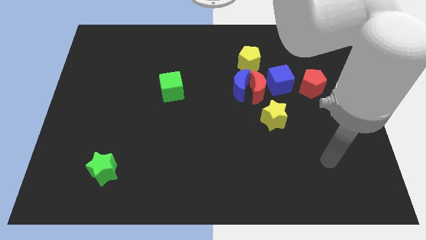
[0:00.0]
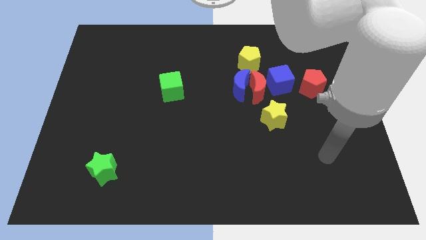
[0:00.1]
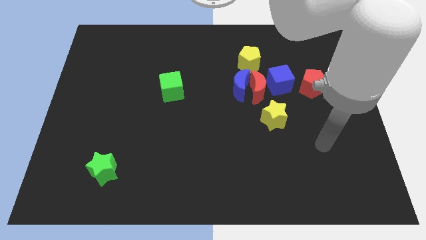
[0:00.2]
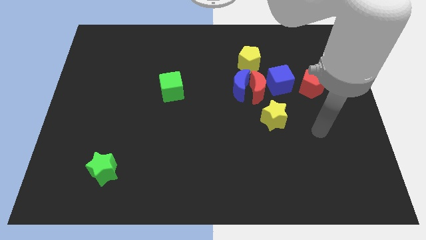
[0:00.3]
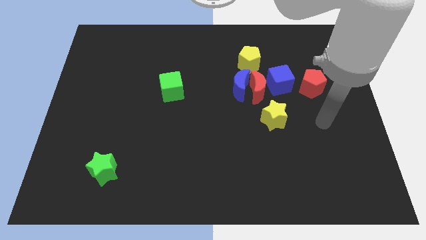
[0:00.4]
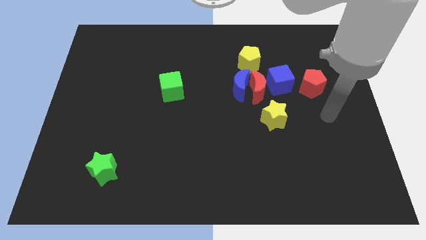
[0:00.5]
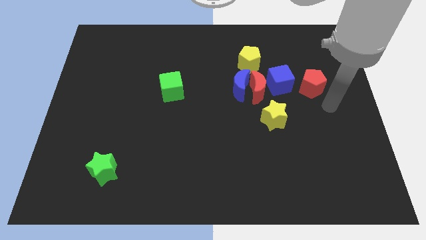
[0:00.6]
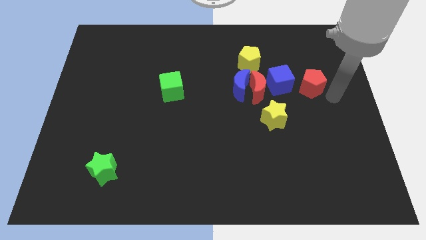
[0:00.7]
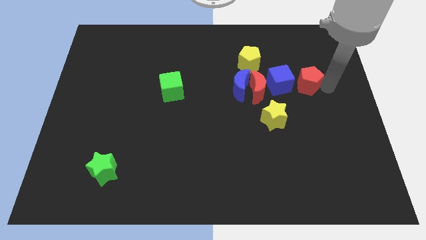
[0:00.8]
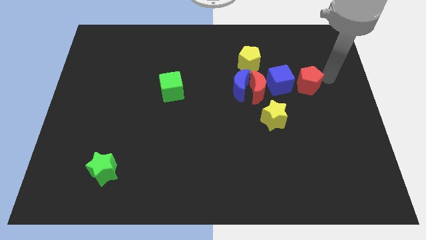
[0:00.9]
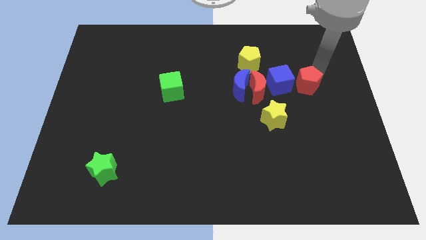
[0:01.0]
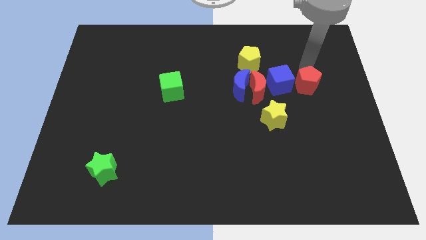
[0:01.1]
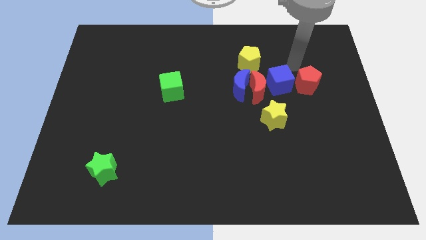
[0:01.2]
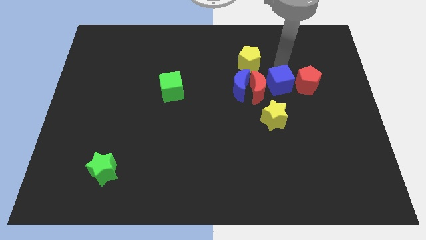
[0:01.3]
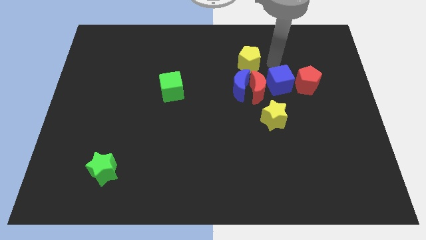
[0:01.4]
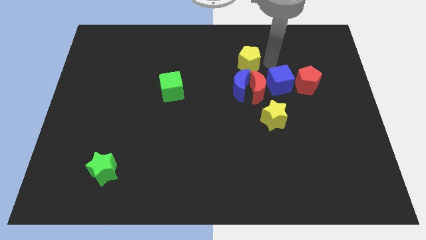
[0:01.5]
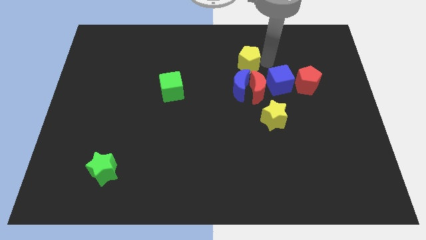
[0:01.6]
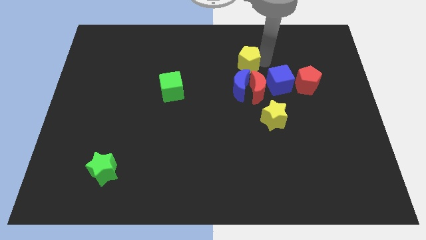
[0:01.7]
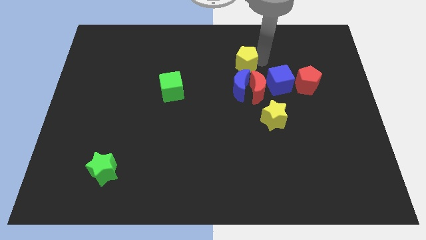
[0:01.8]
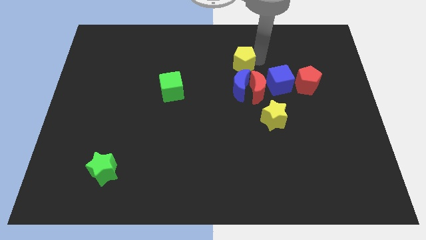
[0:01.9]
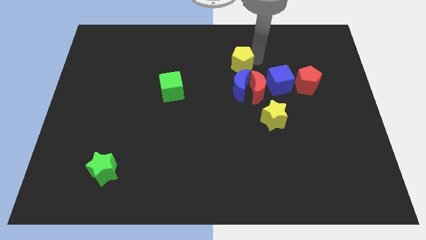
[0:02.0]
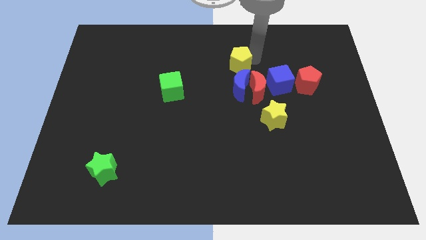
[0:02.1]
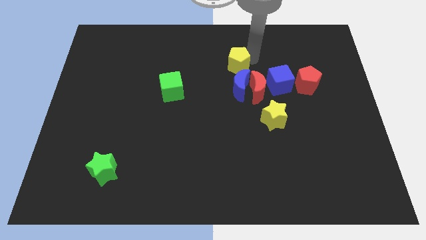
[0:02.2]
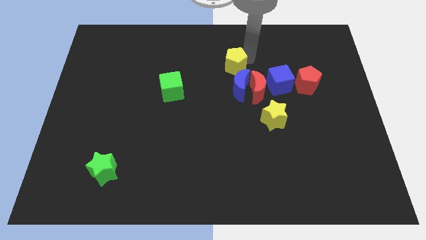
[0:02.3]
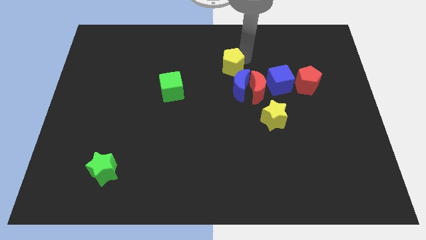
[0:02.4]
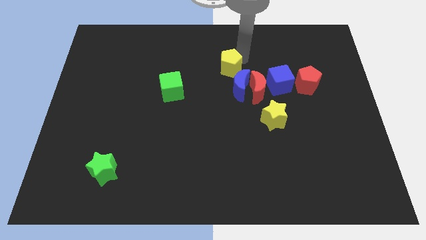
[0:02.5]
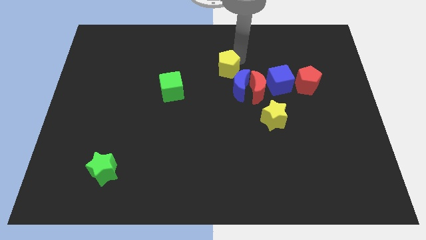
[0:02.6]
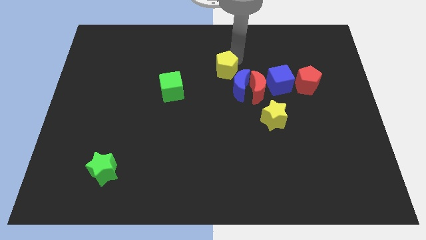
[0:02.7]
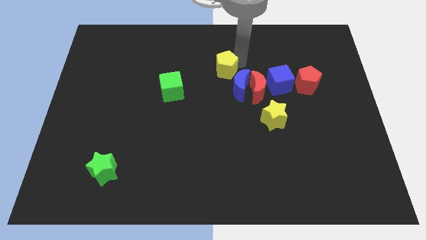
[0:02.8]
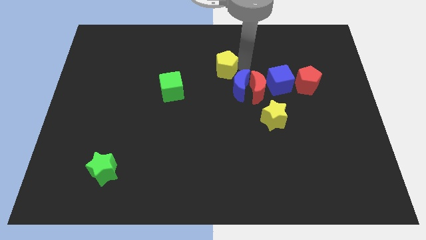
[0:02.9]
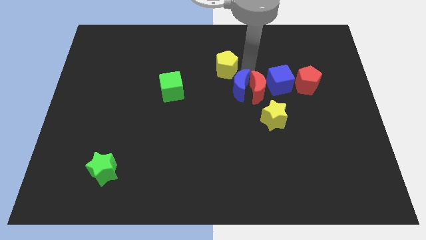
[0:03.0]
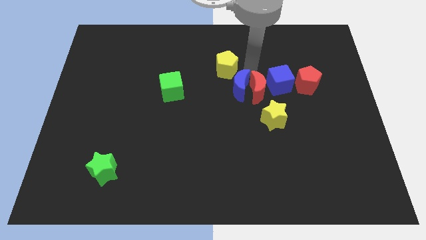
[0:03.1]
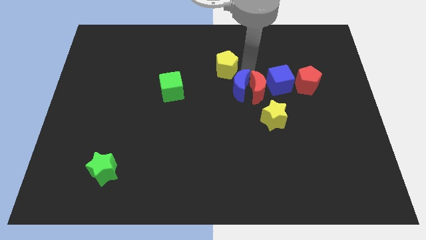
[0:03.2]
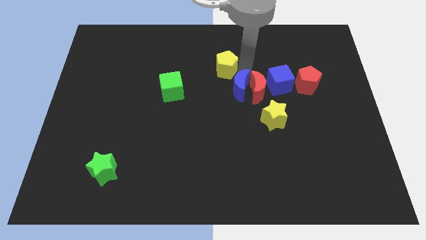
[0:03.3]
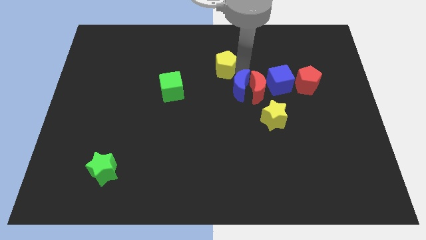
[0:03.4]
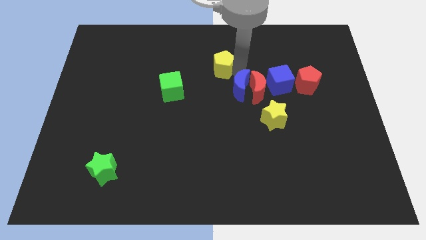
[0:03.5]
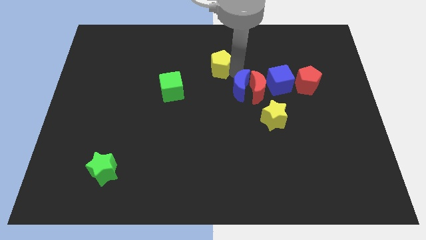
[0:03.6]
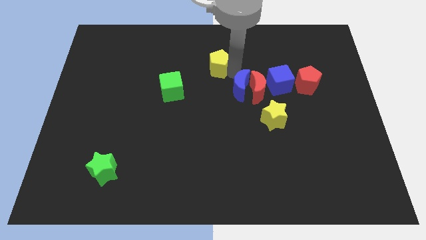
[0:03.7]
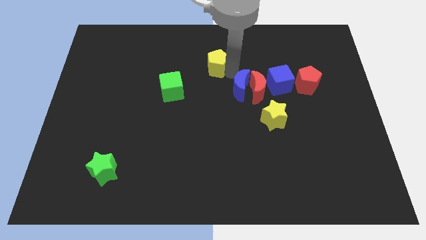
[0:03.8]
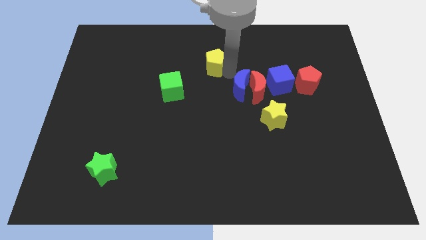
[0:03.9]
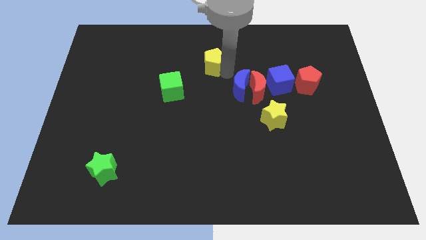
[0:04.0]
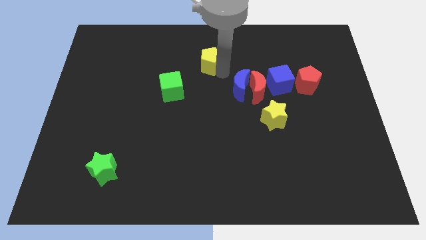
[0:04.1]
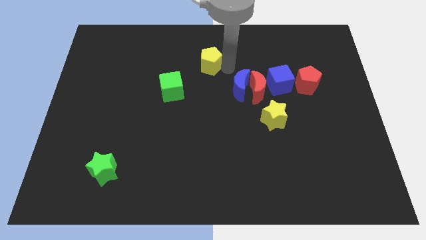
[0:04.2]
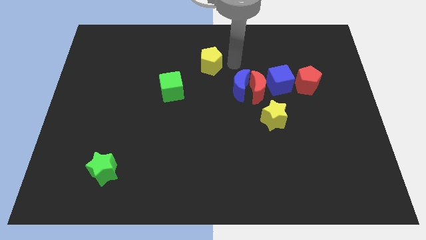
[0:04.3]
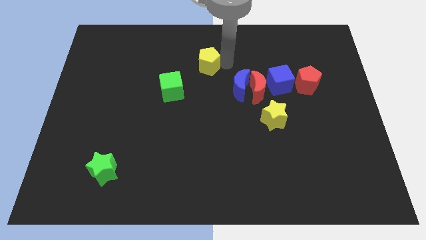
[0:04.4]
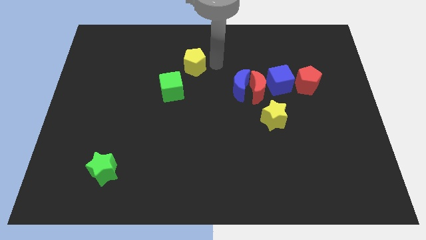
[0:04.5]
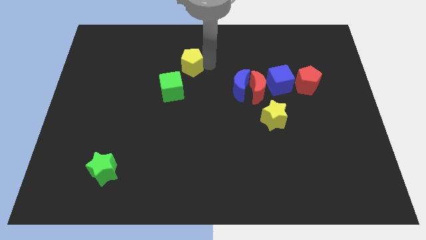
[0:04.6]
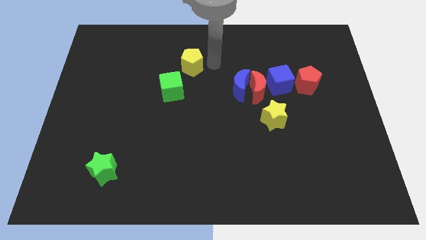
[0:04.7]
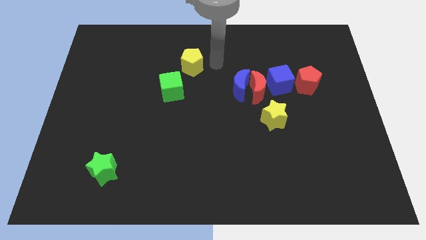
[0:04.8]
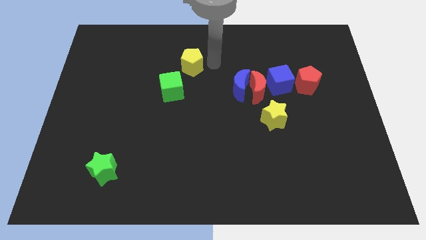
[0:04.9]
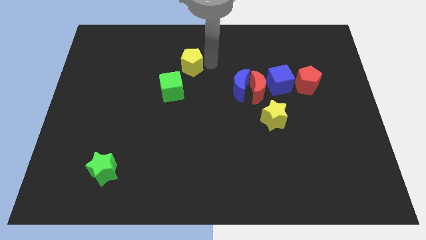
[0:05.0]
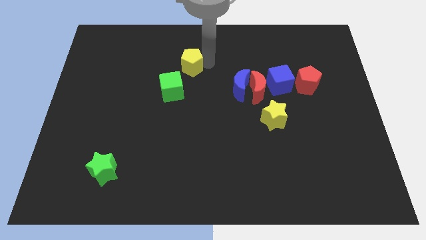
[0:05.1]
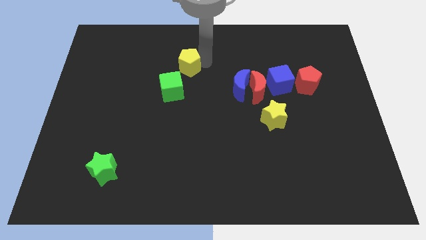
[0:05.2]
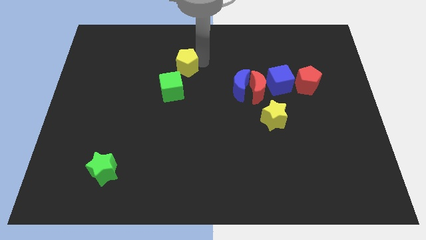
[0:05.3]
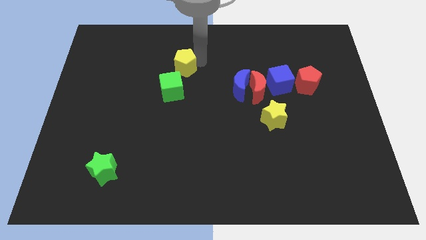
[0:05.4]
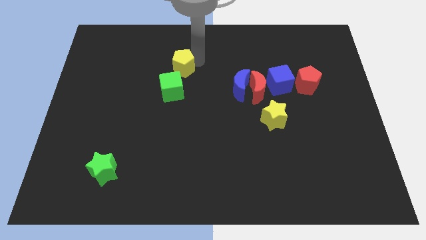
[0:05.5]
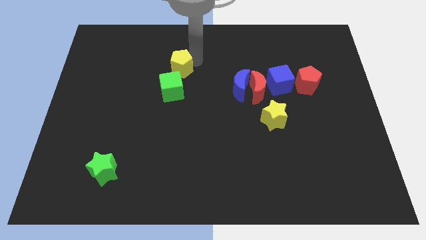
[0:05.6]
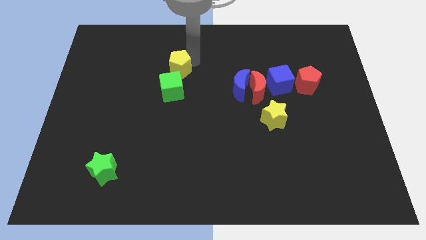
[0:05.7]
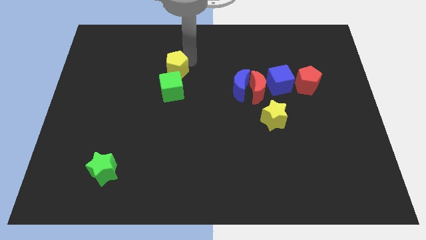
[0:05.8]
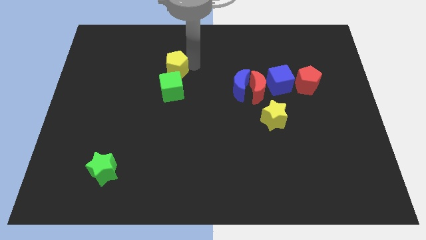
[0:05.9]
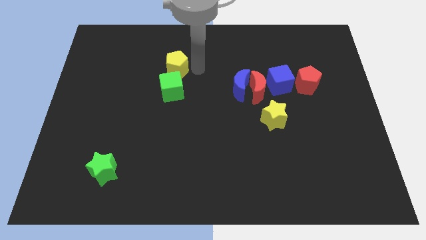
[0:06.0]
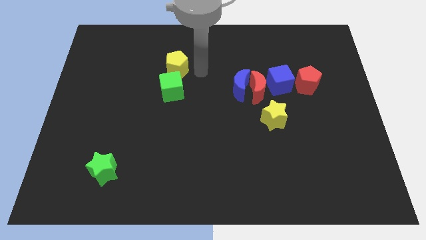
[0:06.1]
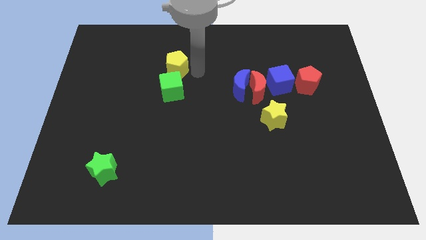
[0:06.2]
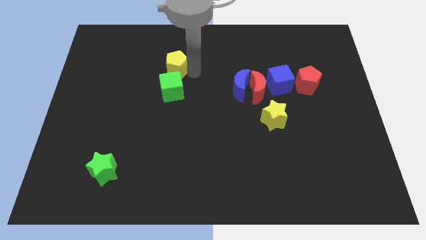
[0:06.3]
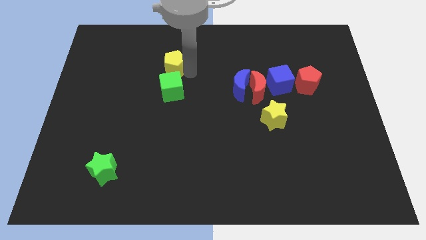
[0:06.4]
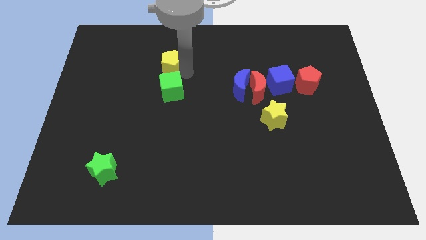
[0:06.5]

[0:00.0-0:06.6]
push the yellow pentagon left

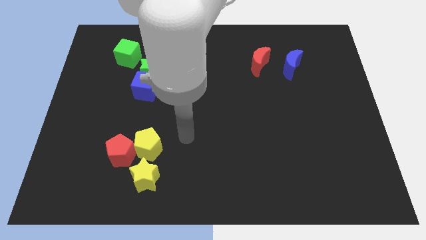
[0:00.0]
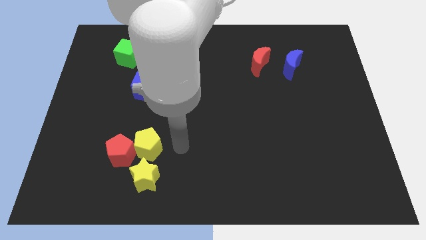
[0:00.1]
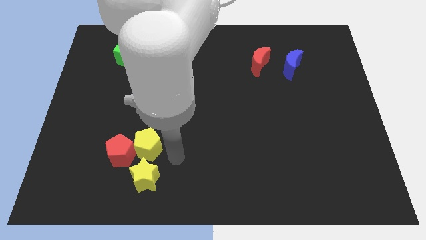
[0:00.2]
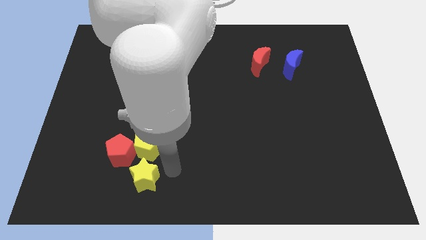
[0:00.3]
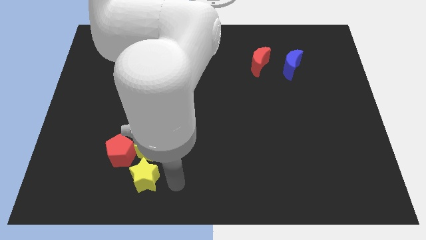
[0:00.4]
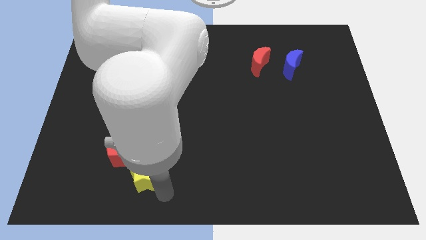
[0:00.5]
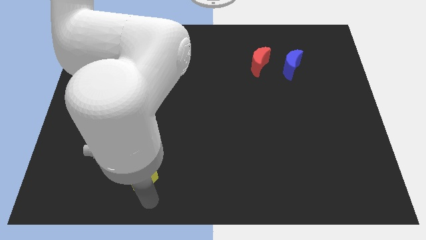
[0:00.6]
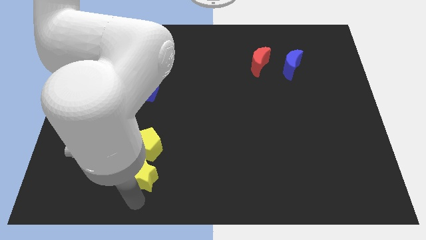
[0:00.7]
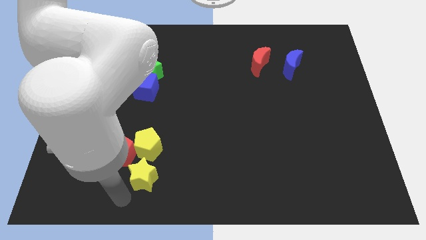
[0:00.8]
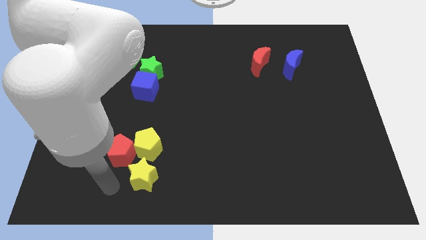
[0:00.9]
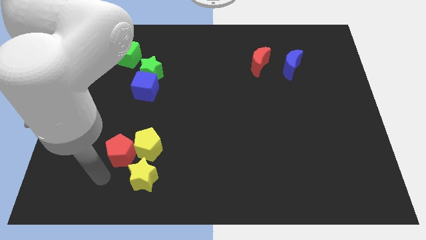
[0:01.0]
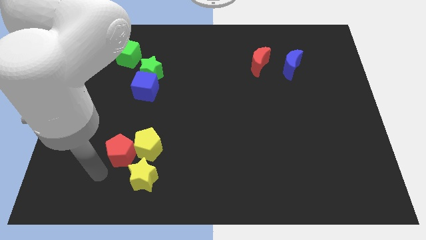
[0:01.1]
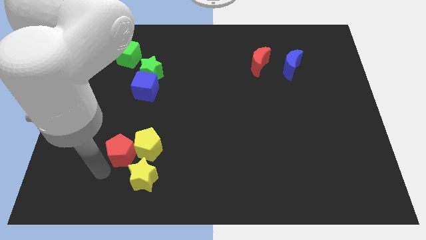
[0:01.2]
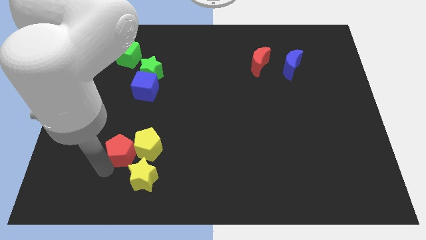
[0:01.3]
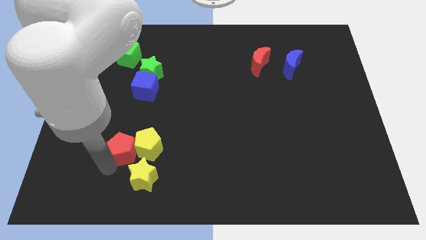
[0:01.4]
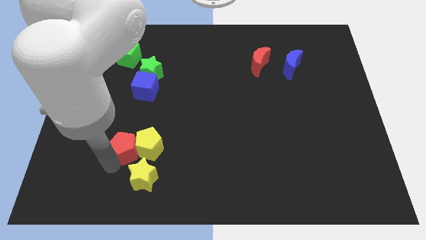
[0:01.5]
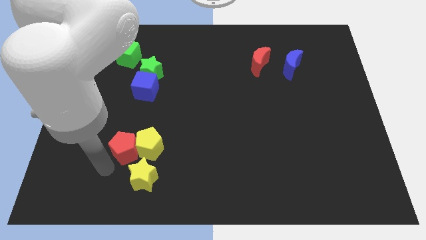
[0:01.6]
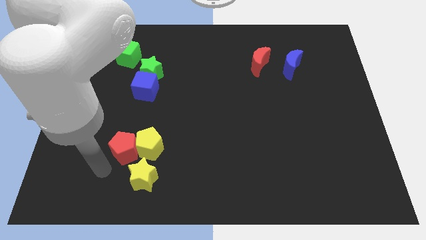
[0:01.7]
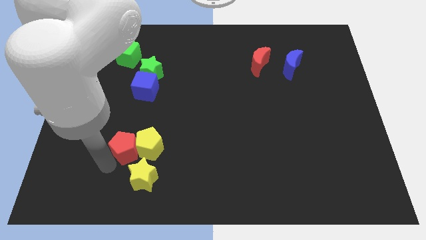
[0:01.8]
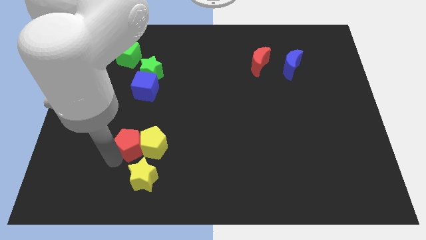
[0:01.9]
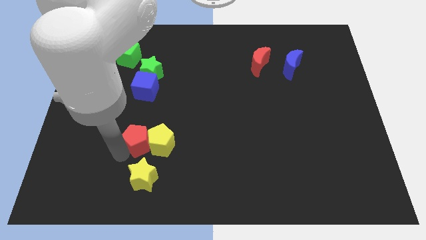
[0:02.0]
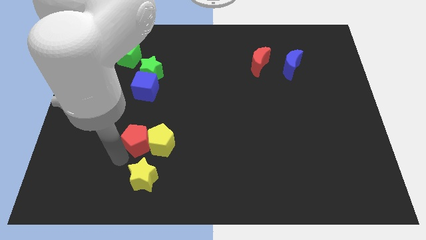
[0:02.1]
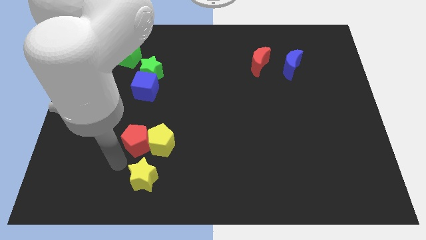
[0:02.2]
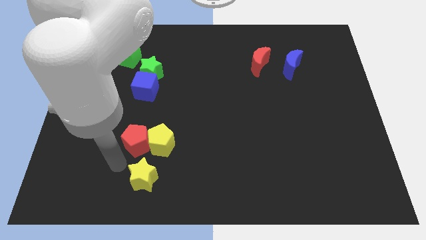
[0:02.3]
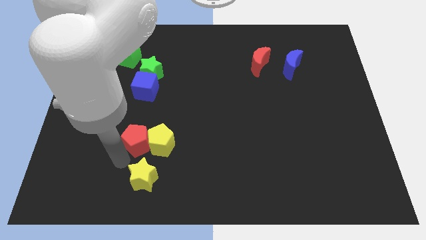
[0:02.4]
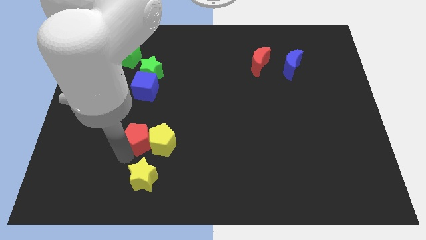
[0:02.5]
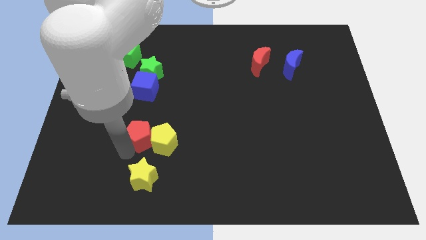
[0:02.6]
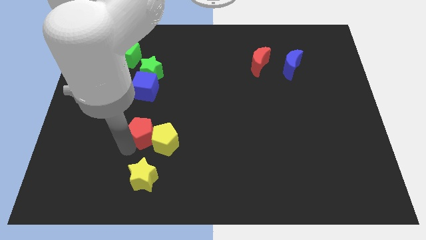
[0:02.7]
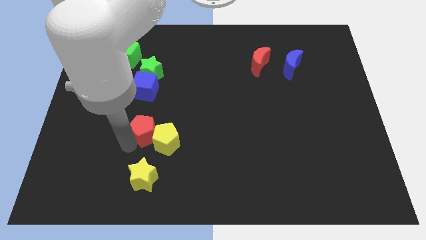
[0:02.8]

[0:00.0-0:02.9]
slide the red pentagon upwards and to the right somewhat
